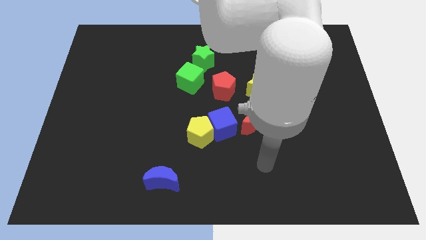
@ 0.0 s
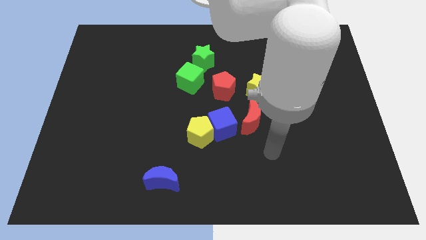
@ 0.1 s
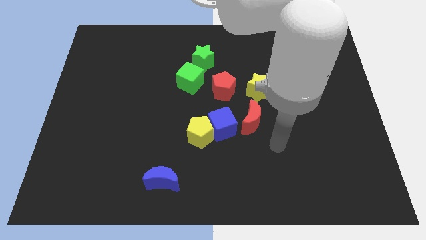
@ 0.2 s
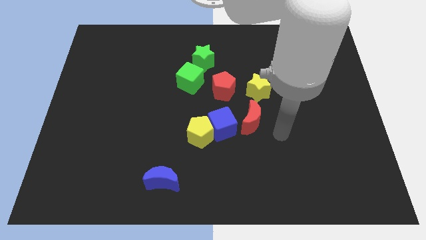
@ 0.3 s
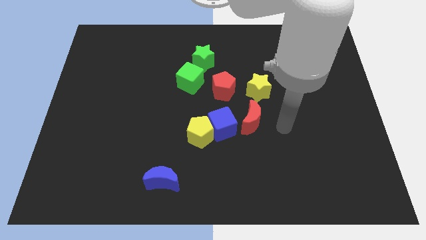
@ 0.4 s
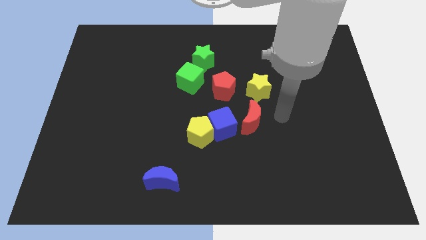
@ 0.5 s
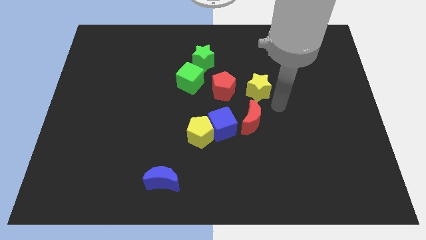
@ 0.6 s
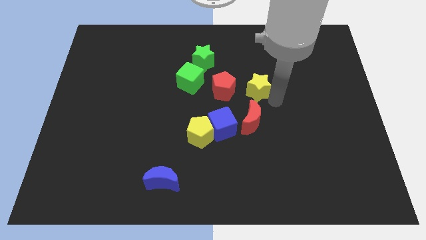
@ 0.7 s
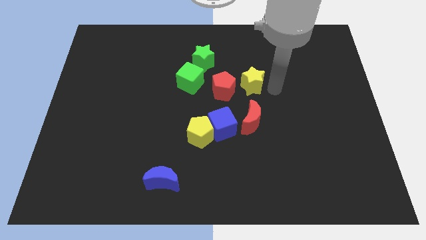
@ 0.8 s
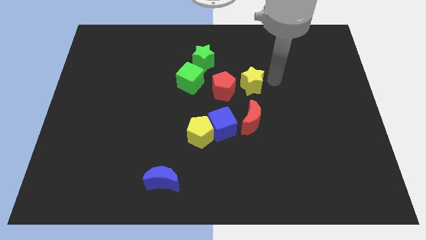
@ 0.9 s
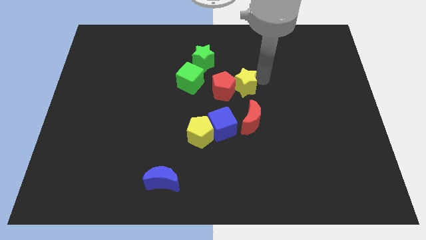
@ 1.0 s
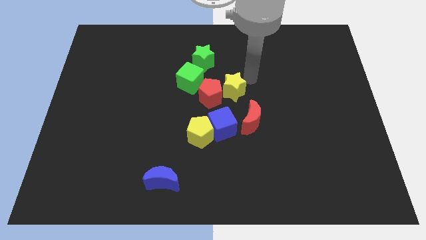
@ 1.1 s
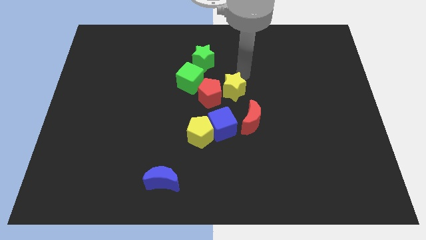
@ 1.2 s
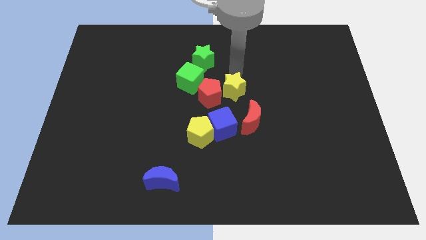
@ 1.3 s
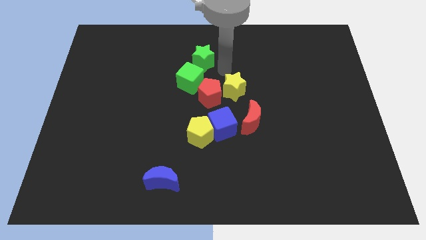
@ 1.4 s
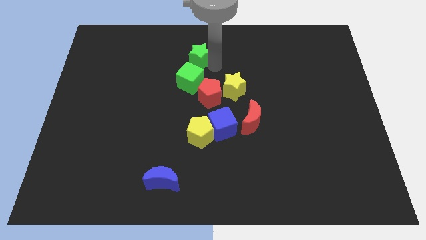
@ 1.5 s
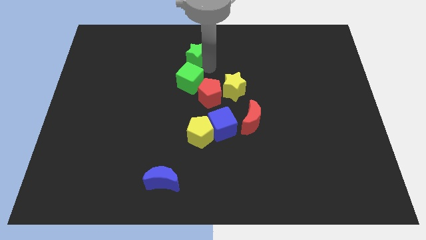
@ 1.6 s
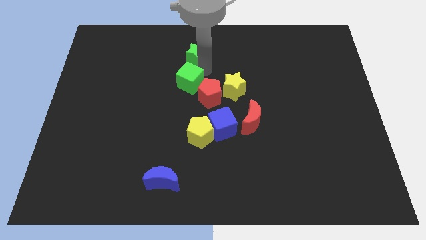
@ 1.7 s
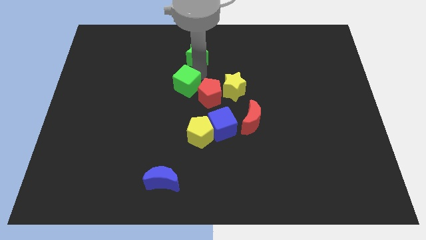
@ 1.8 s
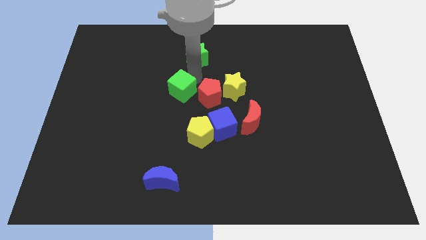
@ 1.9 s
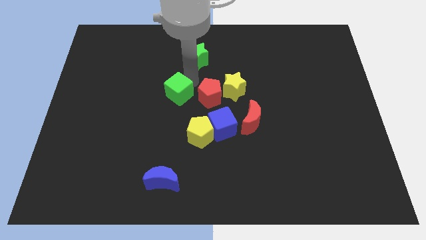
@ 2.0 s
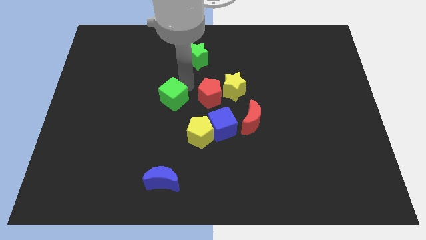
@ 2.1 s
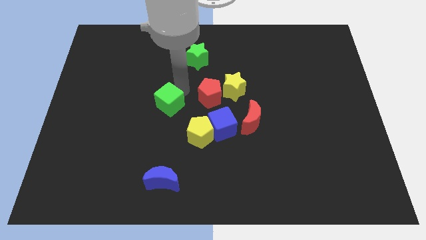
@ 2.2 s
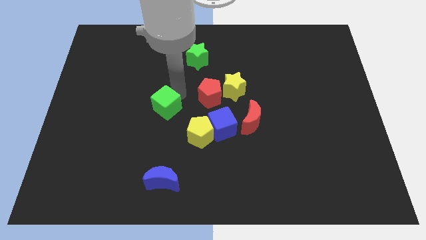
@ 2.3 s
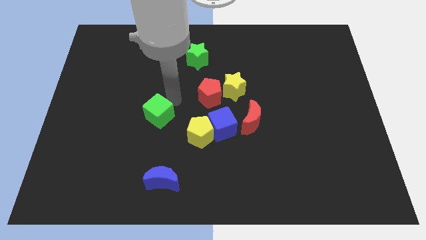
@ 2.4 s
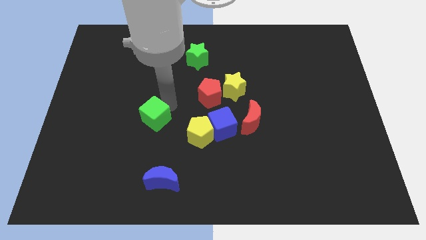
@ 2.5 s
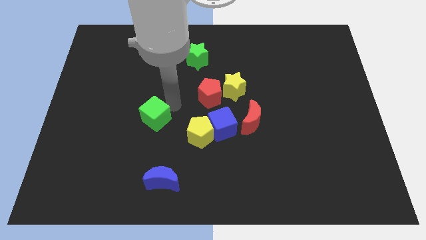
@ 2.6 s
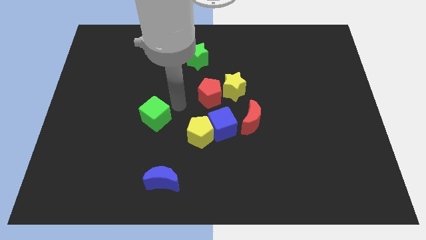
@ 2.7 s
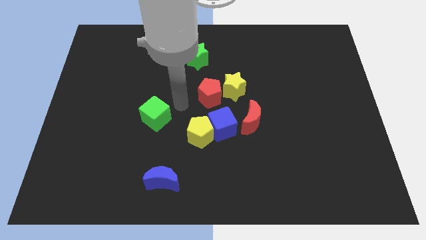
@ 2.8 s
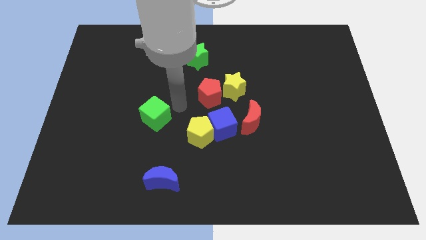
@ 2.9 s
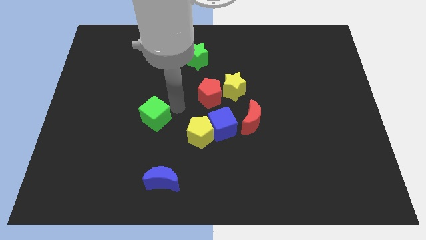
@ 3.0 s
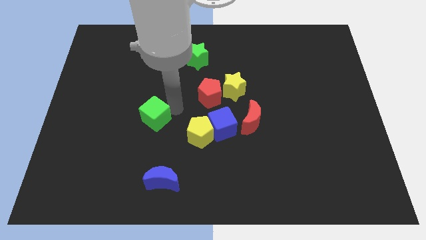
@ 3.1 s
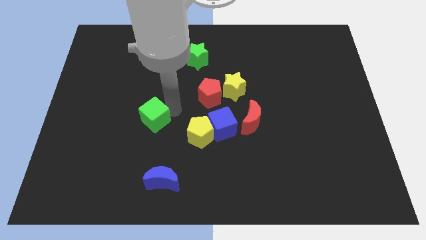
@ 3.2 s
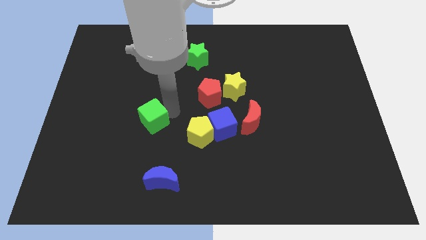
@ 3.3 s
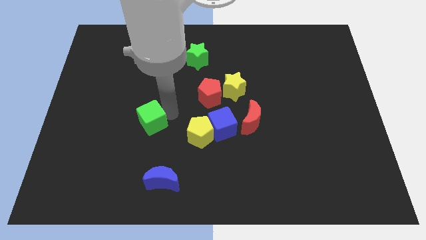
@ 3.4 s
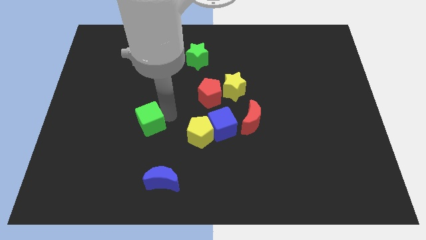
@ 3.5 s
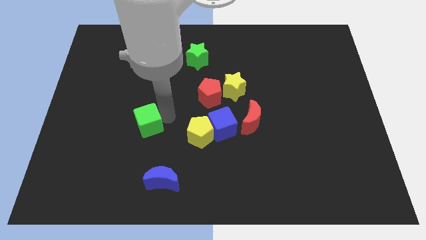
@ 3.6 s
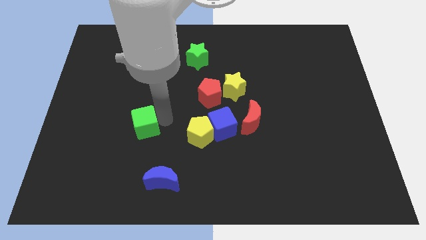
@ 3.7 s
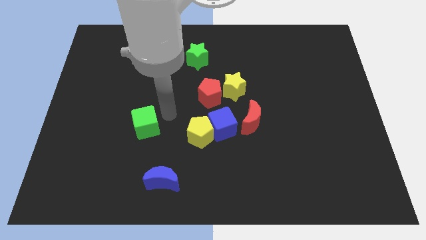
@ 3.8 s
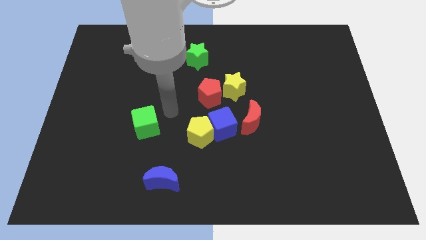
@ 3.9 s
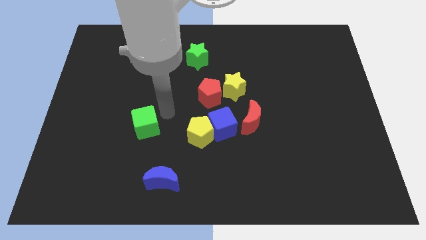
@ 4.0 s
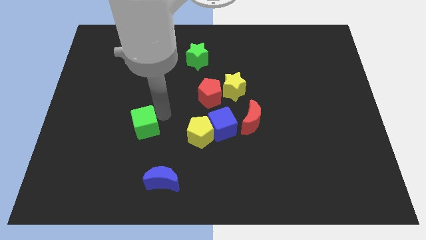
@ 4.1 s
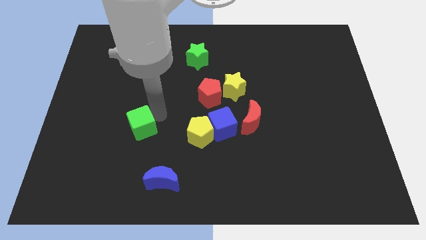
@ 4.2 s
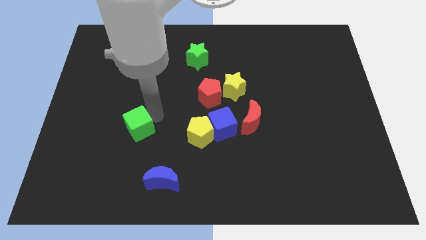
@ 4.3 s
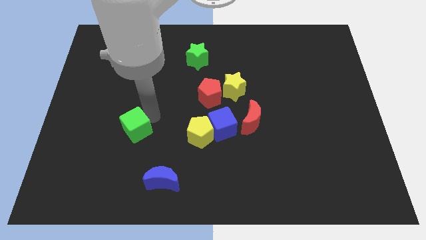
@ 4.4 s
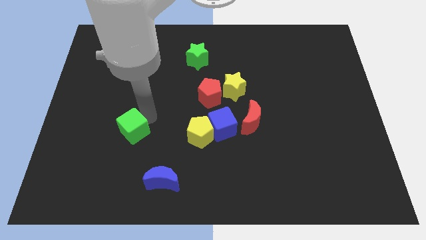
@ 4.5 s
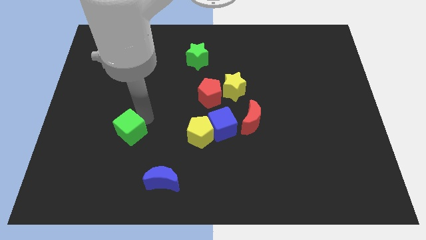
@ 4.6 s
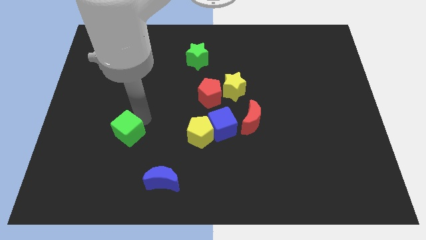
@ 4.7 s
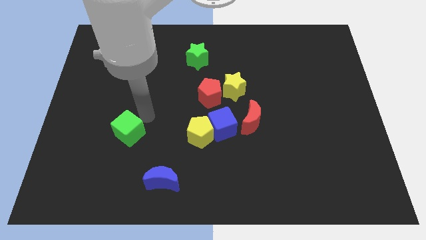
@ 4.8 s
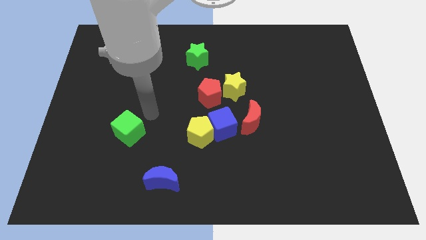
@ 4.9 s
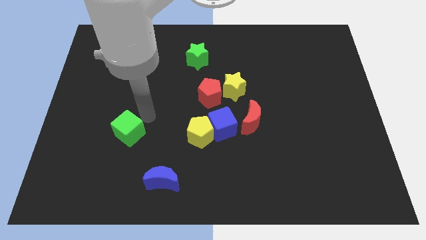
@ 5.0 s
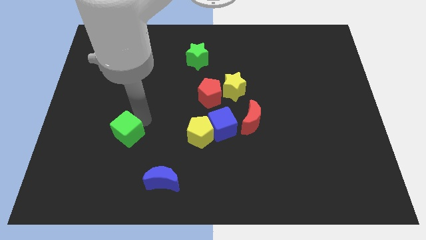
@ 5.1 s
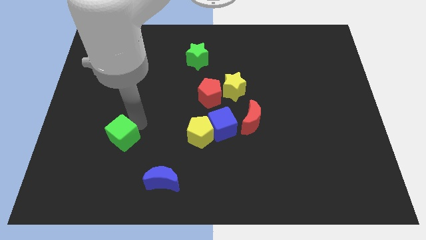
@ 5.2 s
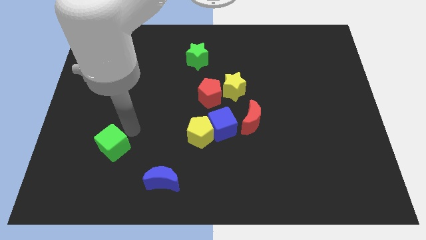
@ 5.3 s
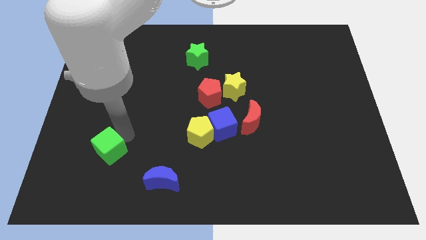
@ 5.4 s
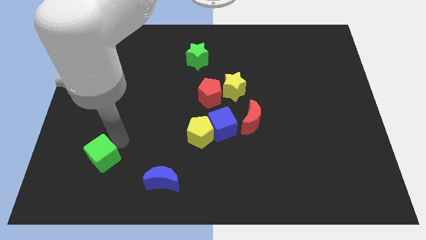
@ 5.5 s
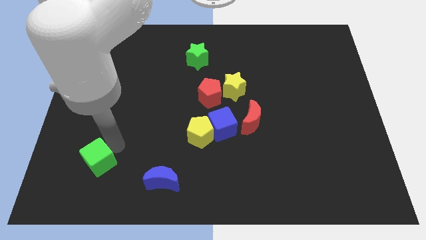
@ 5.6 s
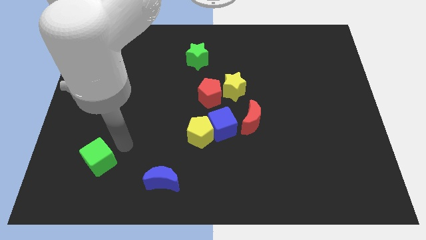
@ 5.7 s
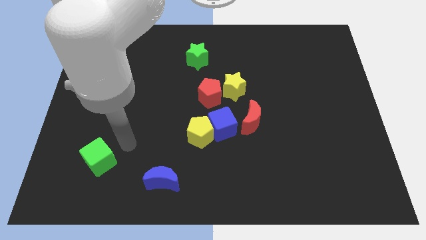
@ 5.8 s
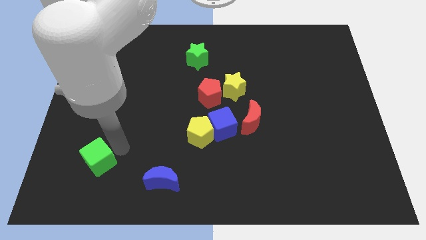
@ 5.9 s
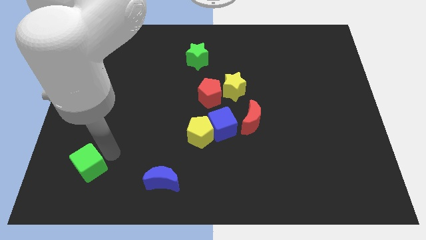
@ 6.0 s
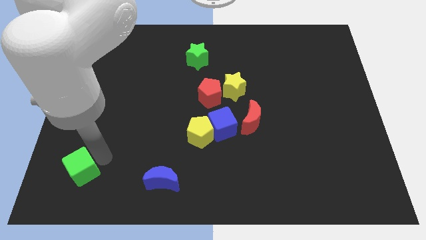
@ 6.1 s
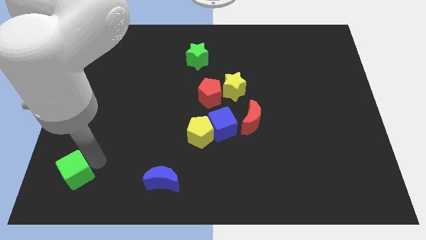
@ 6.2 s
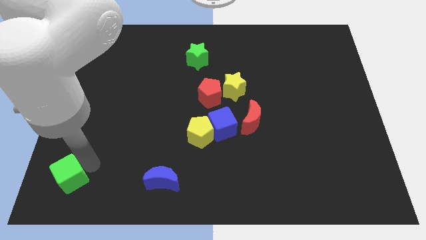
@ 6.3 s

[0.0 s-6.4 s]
push the green cube to the bottom left of the board
